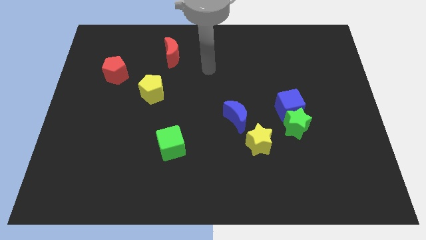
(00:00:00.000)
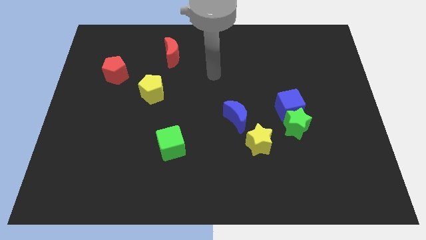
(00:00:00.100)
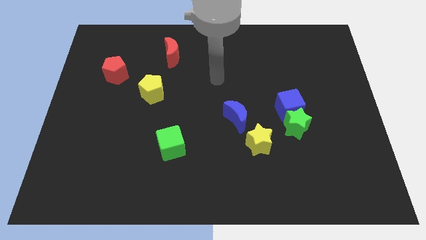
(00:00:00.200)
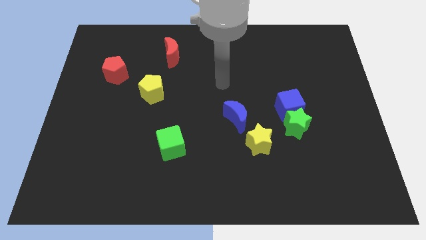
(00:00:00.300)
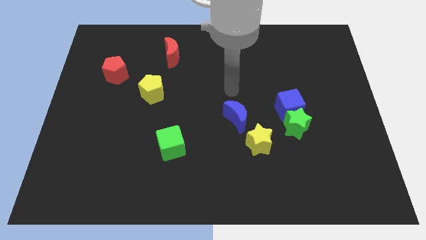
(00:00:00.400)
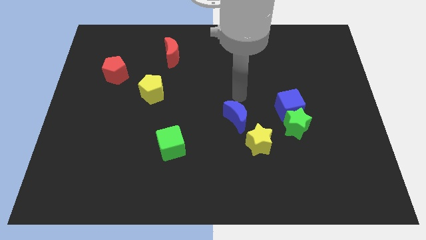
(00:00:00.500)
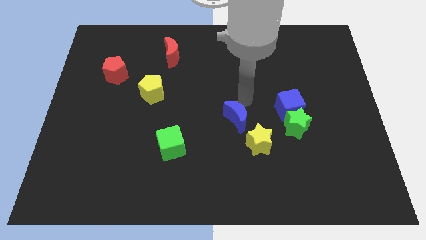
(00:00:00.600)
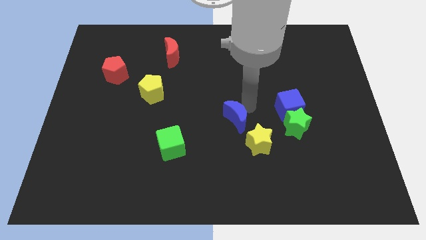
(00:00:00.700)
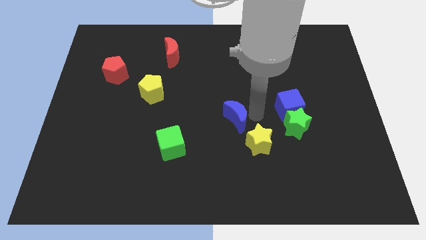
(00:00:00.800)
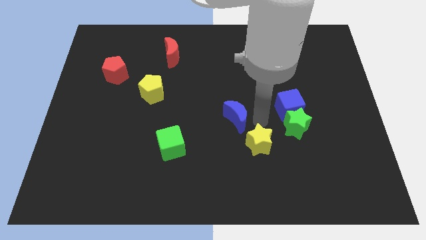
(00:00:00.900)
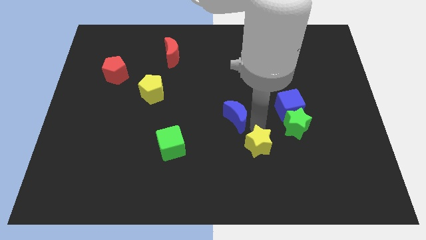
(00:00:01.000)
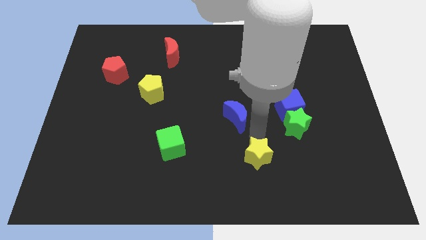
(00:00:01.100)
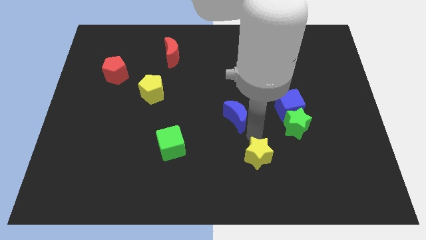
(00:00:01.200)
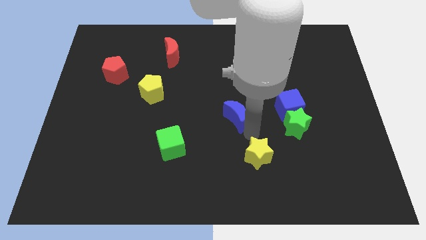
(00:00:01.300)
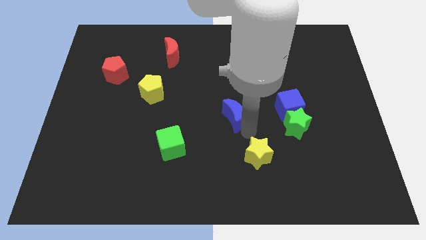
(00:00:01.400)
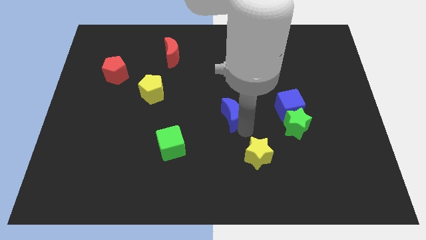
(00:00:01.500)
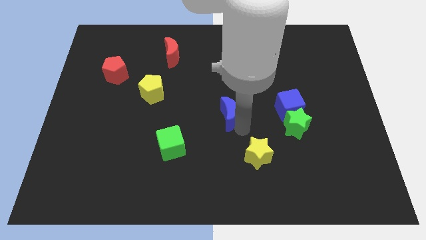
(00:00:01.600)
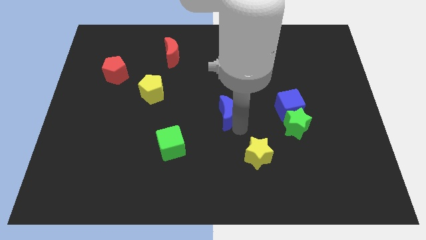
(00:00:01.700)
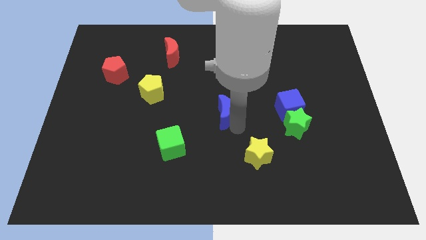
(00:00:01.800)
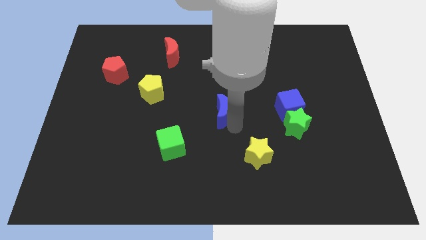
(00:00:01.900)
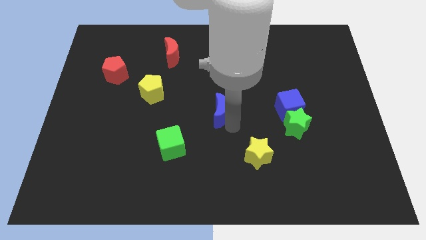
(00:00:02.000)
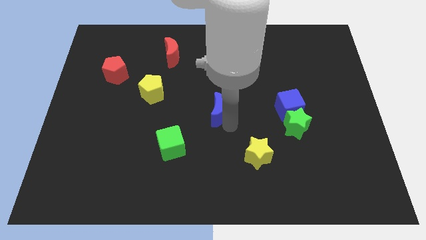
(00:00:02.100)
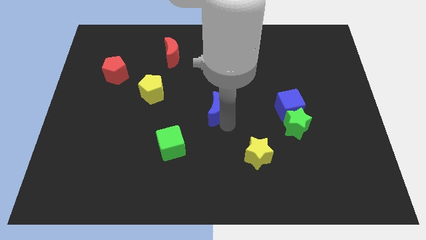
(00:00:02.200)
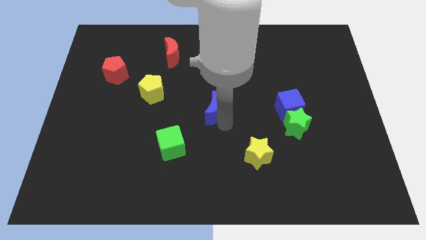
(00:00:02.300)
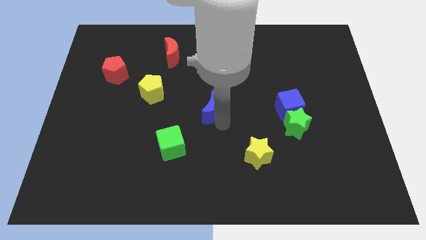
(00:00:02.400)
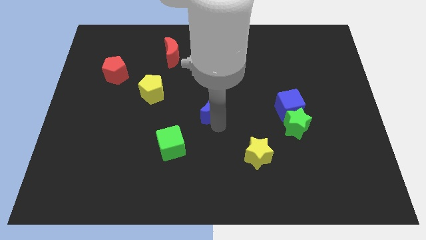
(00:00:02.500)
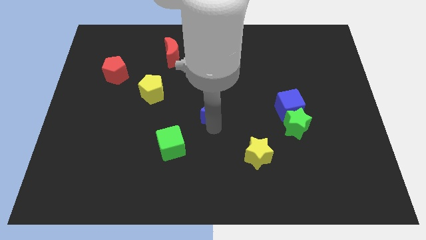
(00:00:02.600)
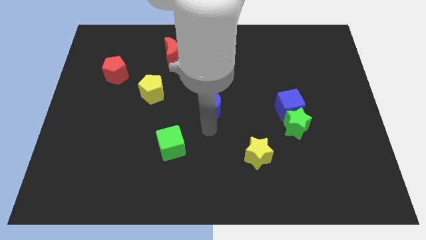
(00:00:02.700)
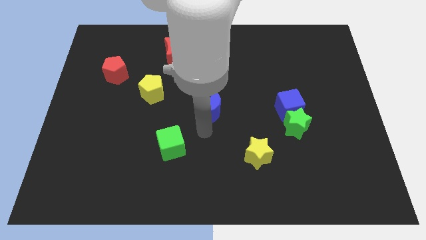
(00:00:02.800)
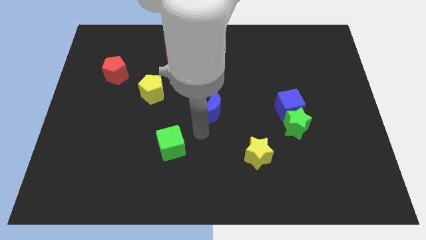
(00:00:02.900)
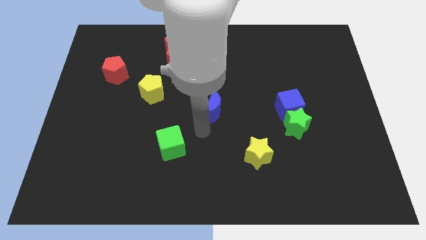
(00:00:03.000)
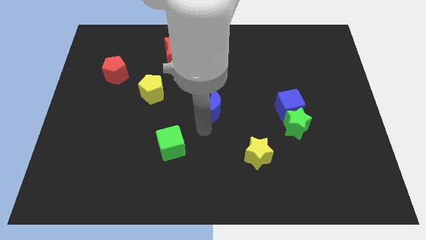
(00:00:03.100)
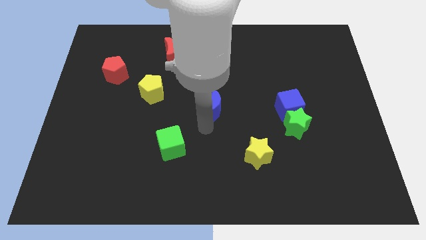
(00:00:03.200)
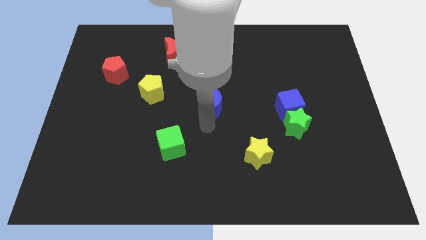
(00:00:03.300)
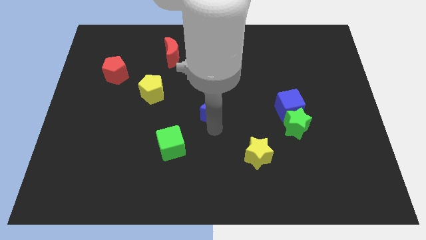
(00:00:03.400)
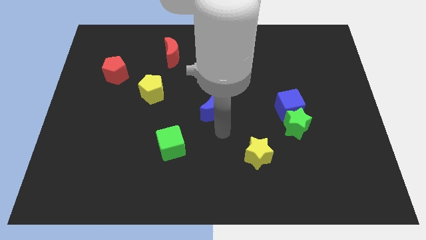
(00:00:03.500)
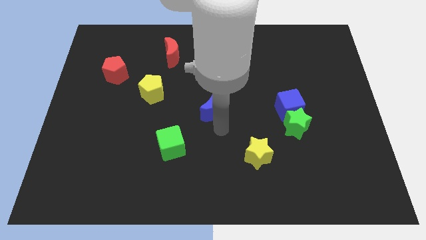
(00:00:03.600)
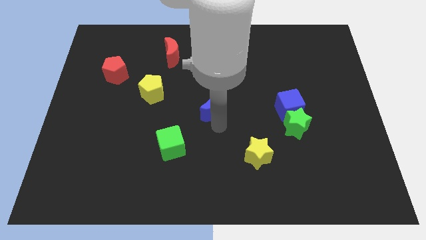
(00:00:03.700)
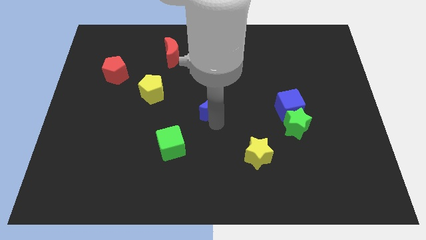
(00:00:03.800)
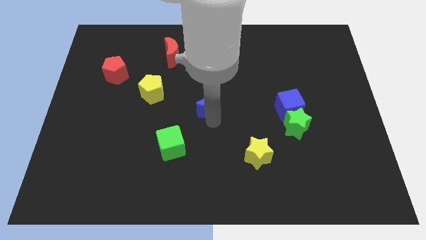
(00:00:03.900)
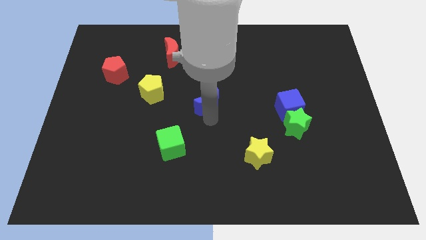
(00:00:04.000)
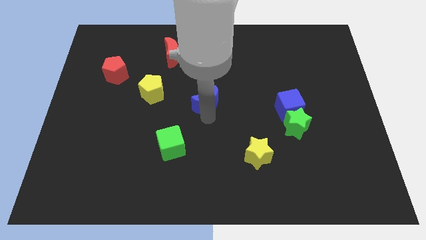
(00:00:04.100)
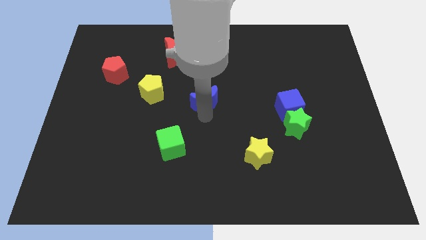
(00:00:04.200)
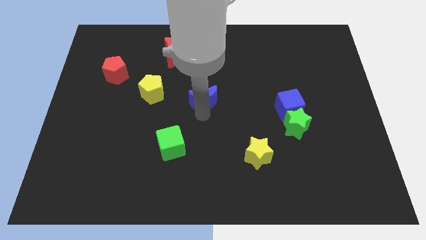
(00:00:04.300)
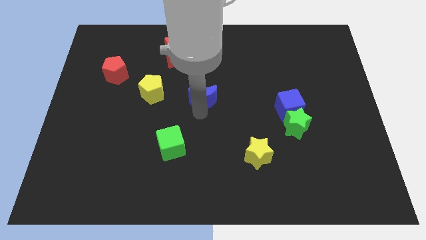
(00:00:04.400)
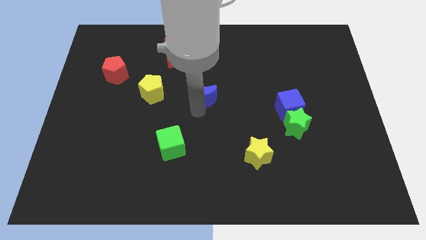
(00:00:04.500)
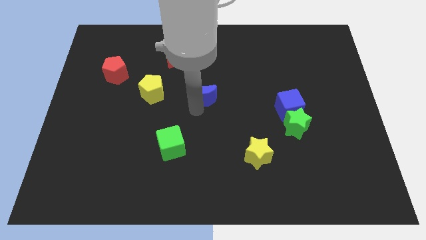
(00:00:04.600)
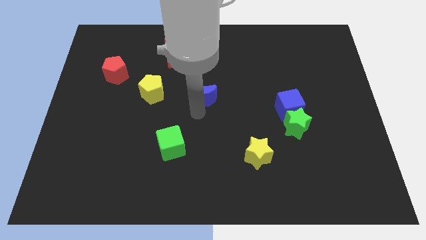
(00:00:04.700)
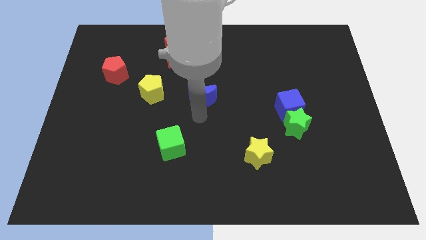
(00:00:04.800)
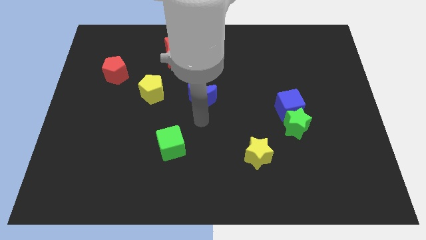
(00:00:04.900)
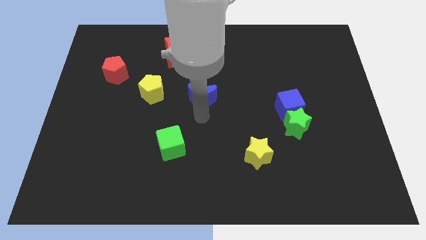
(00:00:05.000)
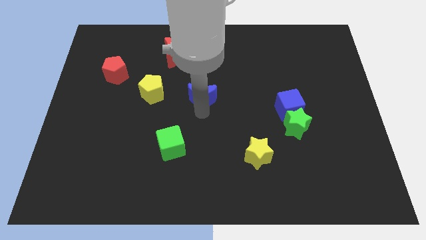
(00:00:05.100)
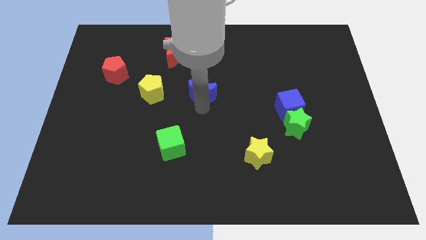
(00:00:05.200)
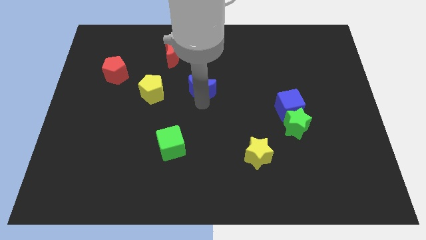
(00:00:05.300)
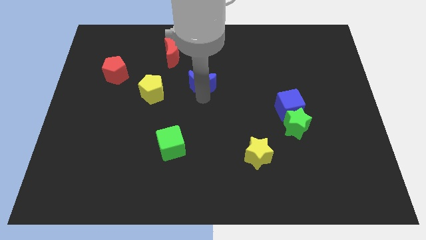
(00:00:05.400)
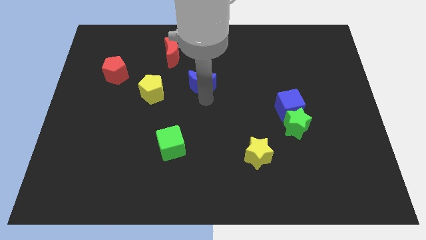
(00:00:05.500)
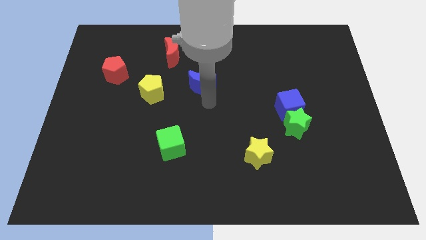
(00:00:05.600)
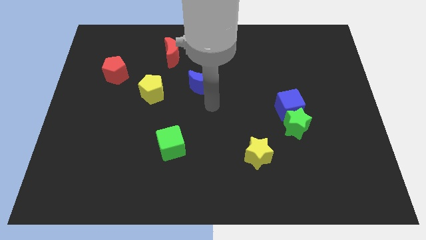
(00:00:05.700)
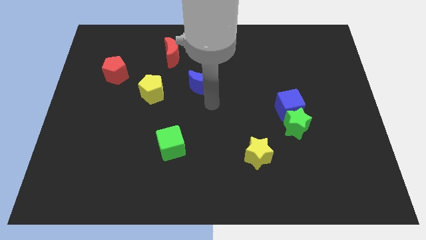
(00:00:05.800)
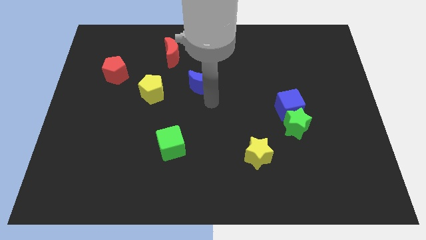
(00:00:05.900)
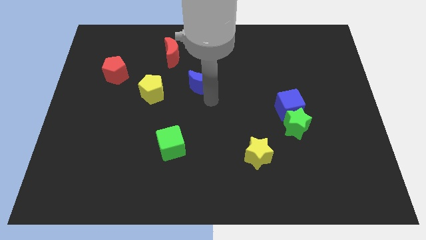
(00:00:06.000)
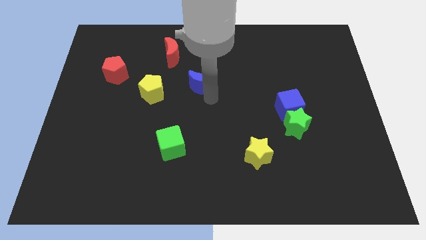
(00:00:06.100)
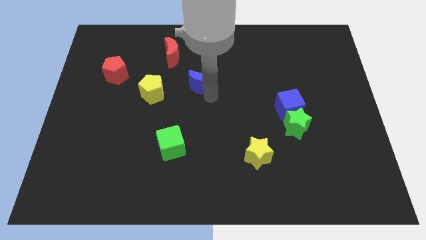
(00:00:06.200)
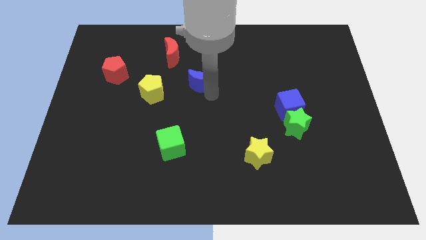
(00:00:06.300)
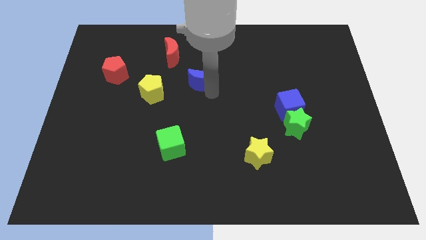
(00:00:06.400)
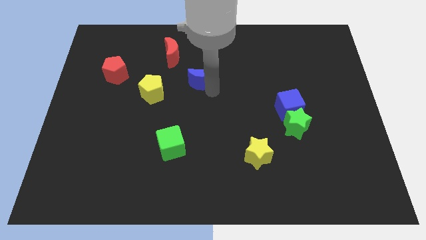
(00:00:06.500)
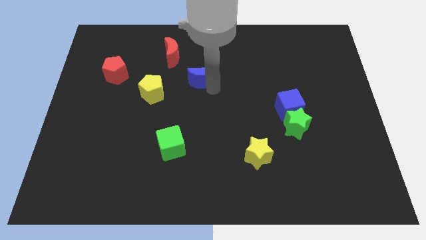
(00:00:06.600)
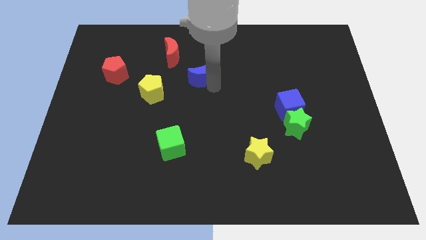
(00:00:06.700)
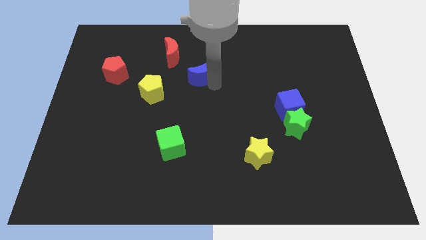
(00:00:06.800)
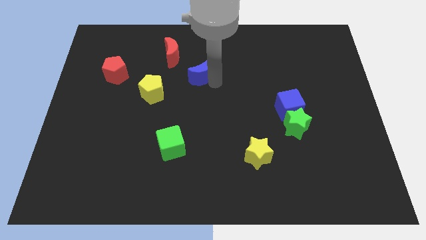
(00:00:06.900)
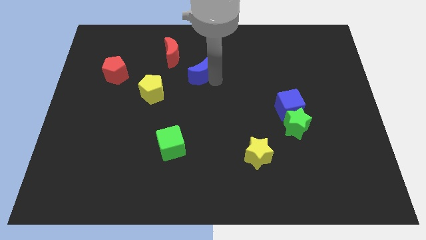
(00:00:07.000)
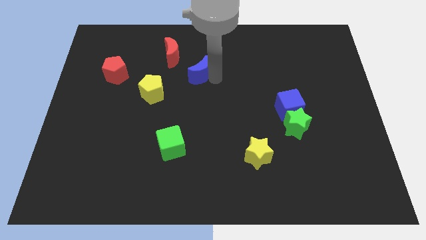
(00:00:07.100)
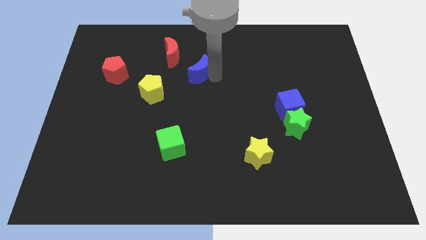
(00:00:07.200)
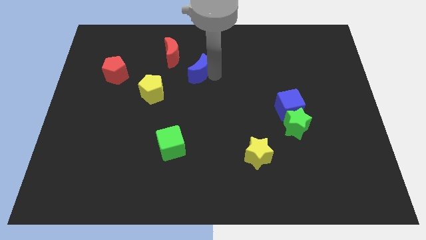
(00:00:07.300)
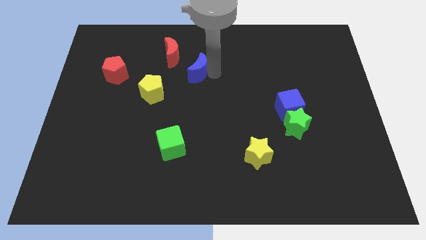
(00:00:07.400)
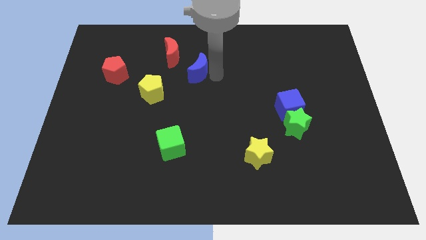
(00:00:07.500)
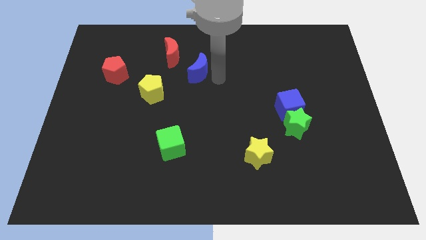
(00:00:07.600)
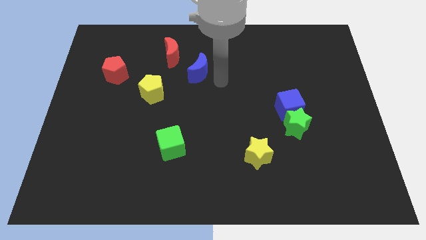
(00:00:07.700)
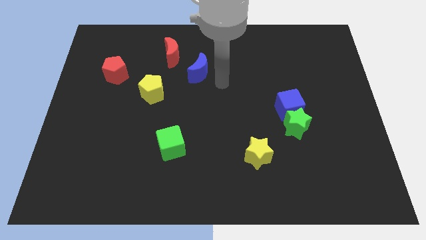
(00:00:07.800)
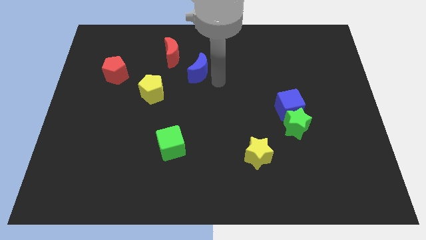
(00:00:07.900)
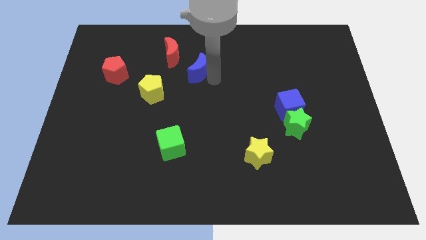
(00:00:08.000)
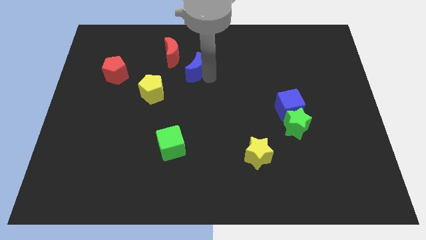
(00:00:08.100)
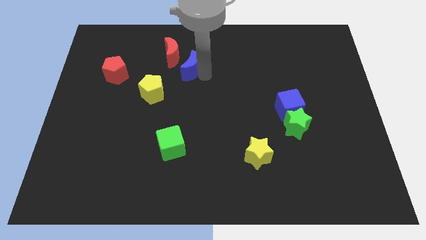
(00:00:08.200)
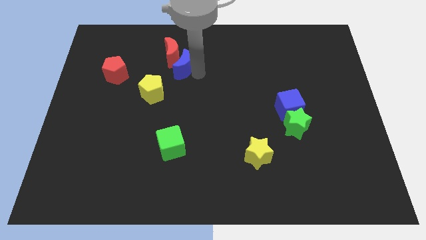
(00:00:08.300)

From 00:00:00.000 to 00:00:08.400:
move the blue moon close to the red moon
